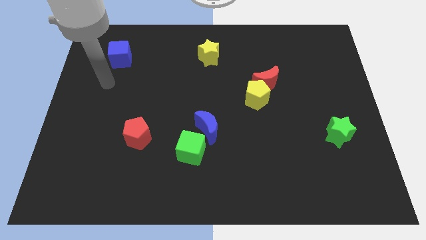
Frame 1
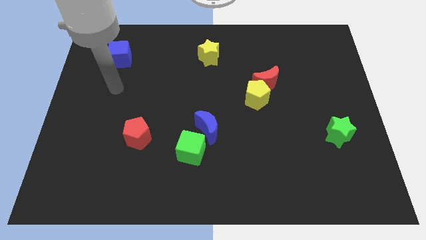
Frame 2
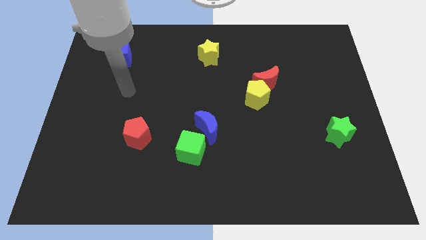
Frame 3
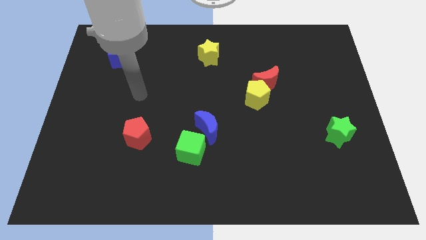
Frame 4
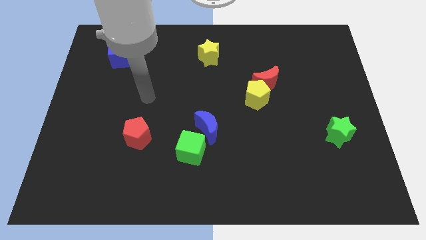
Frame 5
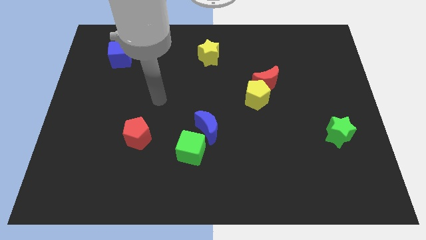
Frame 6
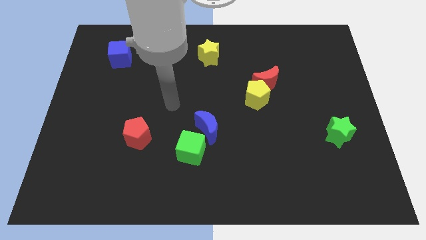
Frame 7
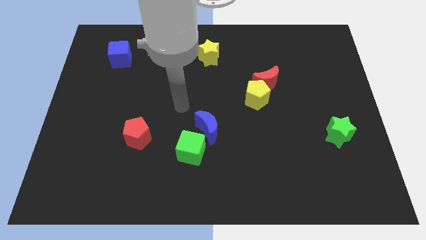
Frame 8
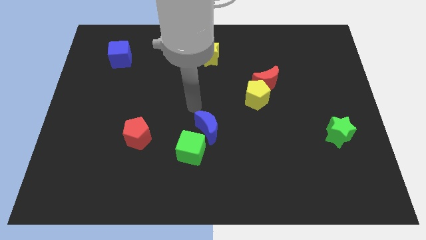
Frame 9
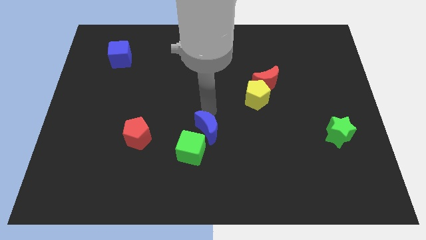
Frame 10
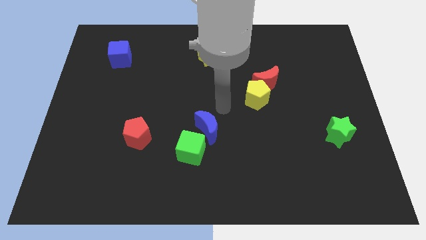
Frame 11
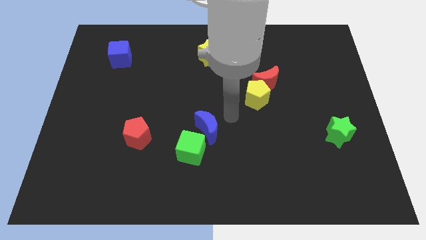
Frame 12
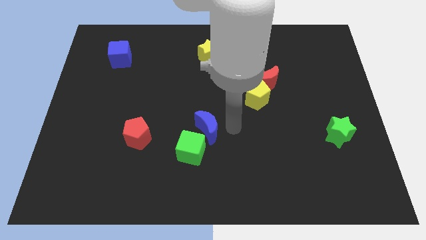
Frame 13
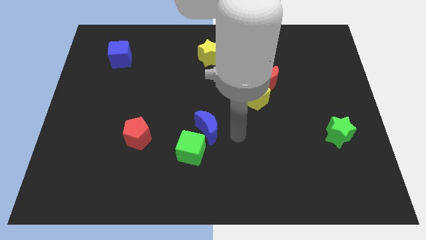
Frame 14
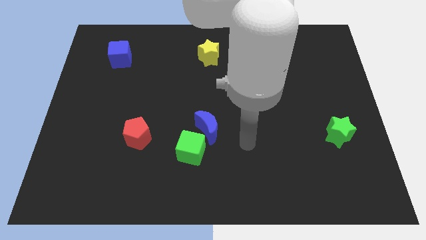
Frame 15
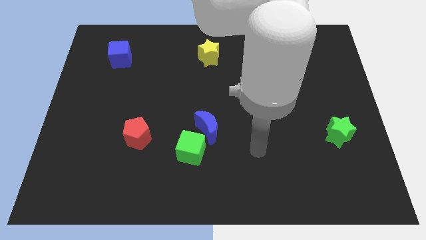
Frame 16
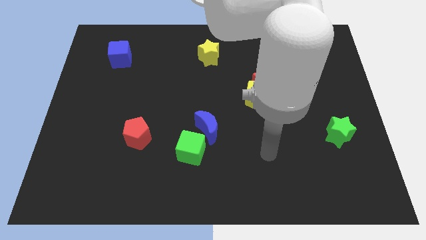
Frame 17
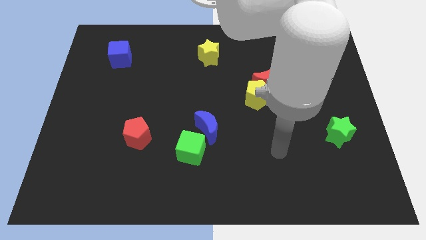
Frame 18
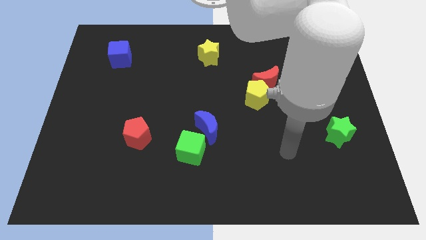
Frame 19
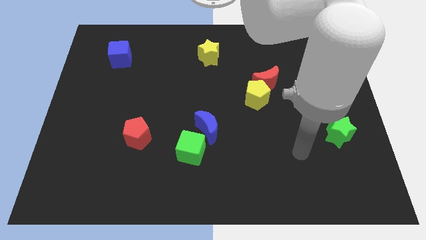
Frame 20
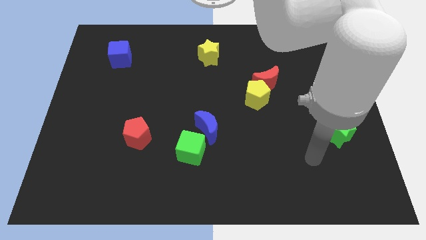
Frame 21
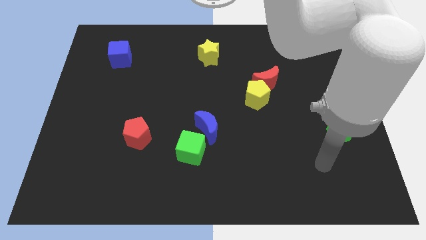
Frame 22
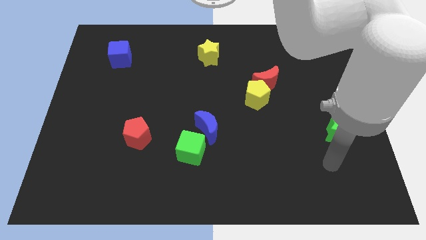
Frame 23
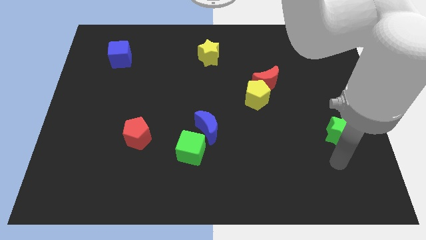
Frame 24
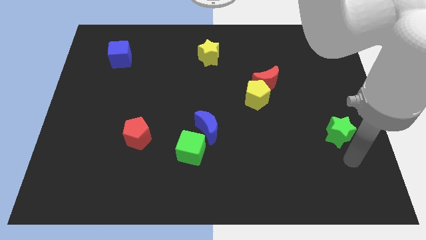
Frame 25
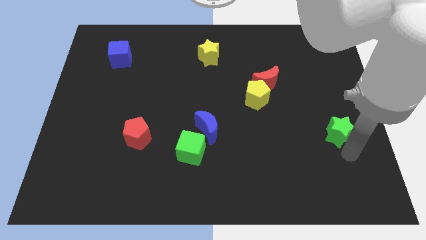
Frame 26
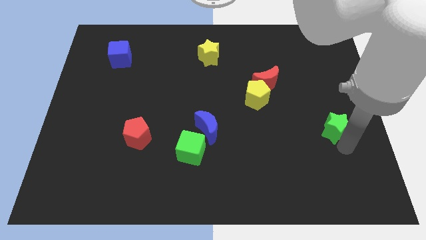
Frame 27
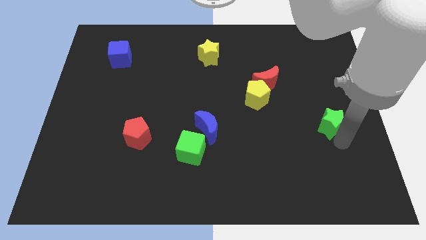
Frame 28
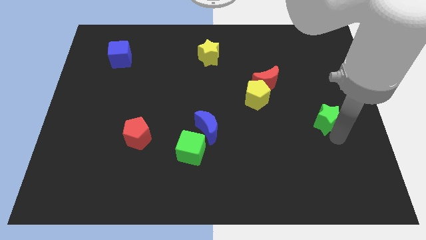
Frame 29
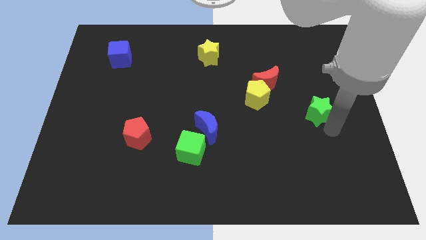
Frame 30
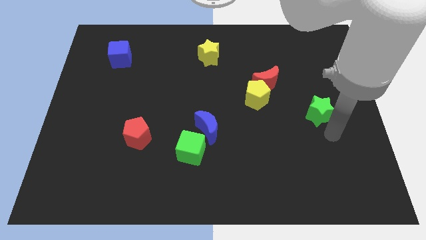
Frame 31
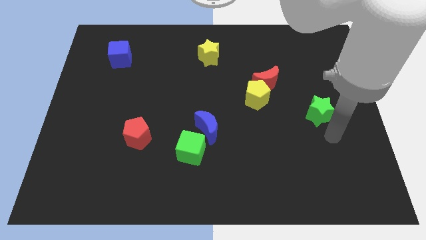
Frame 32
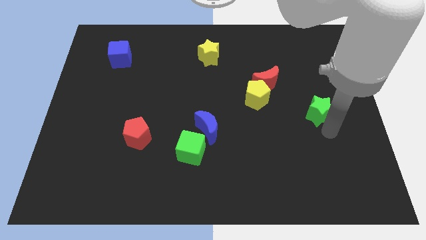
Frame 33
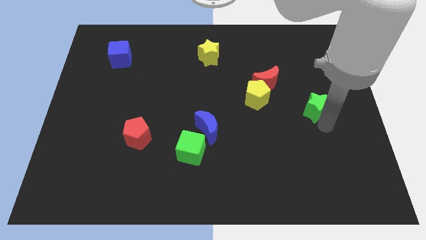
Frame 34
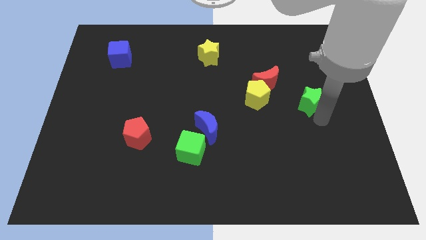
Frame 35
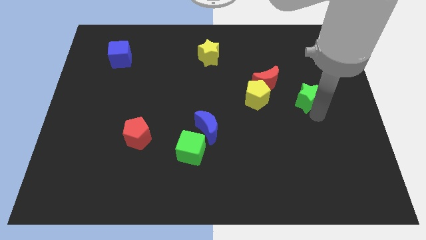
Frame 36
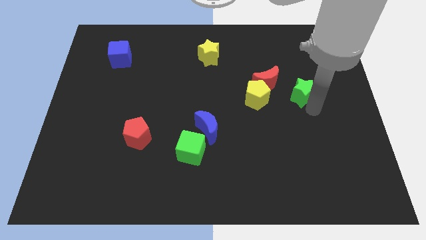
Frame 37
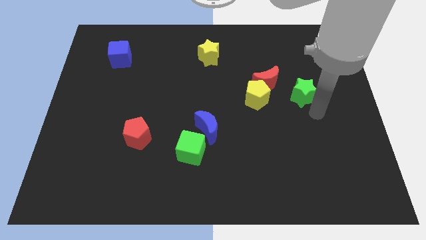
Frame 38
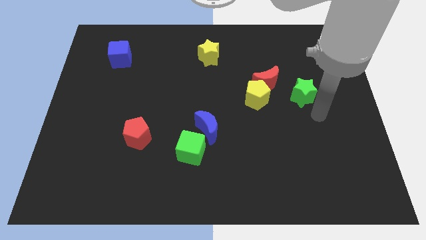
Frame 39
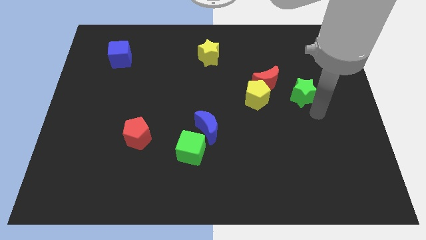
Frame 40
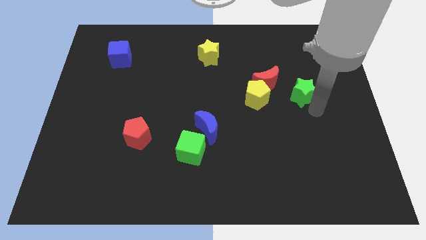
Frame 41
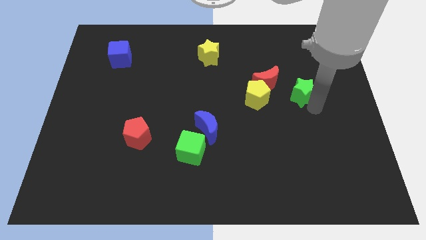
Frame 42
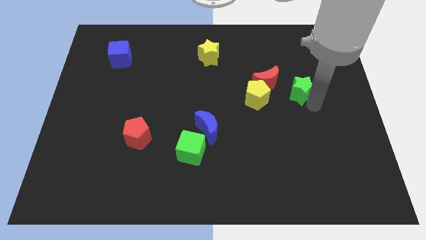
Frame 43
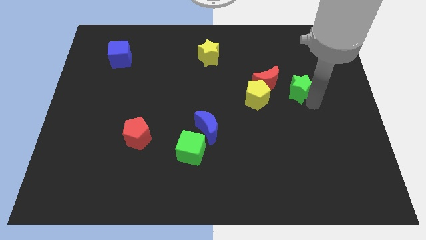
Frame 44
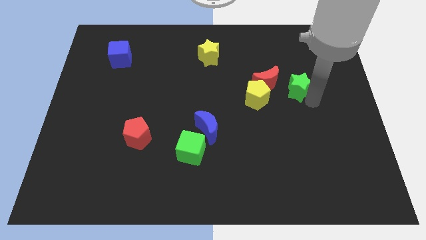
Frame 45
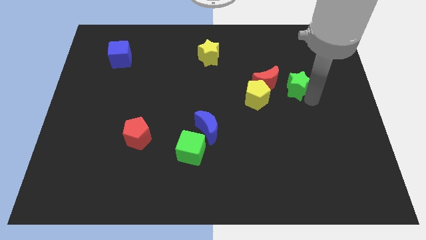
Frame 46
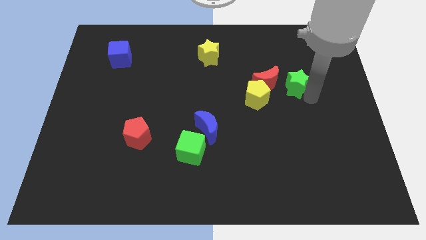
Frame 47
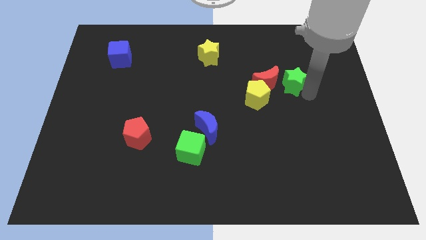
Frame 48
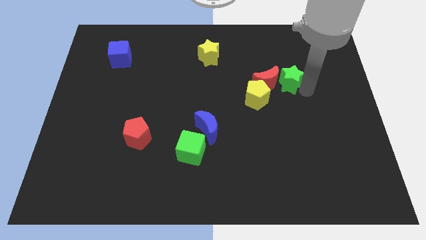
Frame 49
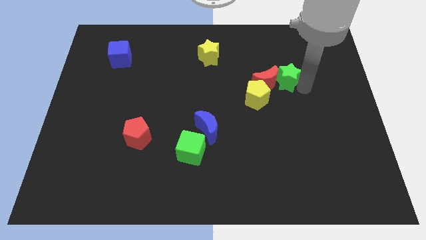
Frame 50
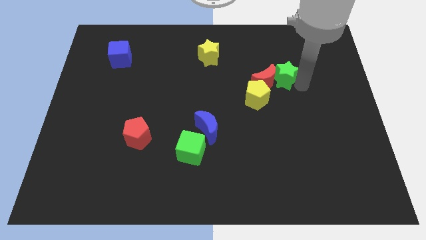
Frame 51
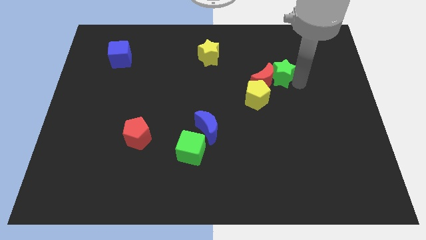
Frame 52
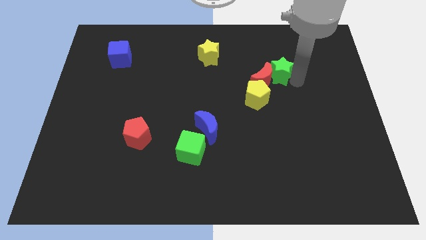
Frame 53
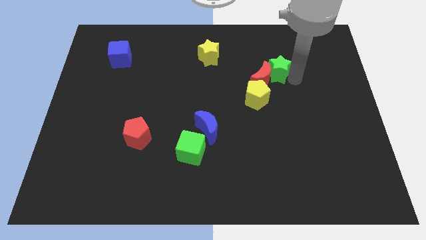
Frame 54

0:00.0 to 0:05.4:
push the green star diagonally up and left

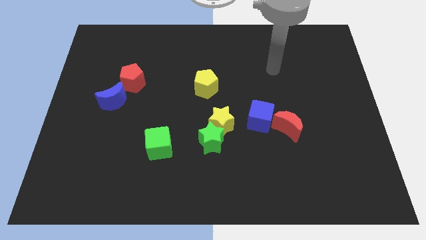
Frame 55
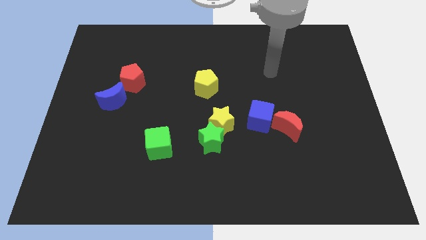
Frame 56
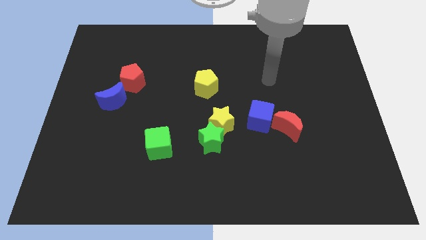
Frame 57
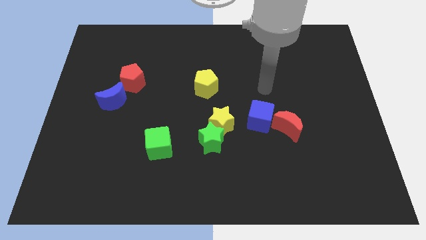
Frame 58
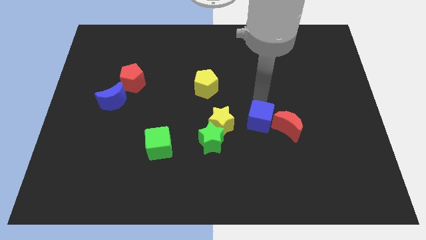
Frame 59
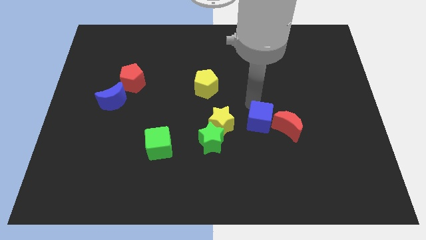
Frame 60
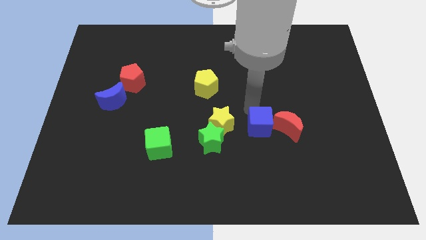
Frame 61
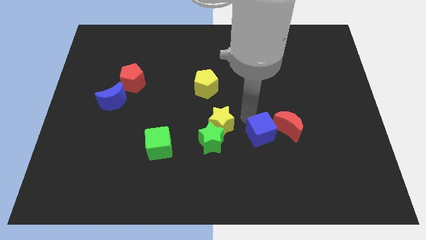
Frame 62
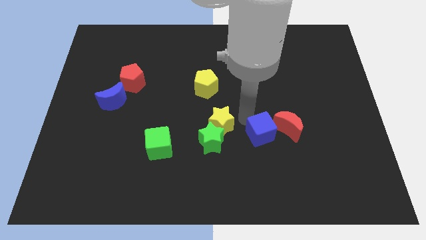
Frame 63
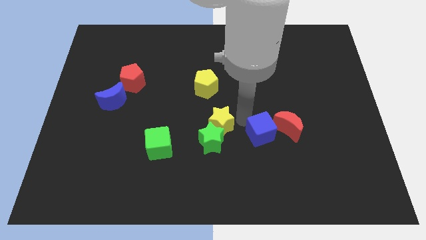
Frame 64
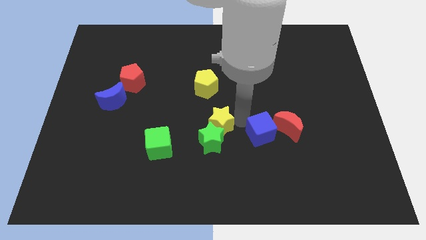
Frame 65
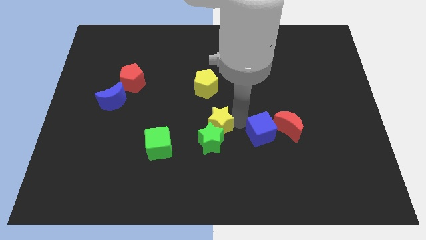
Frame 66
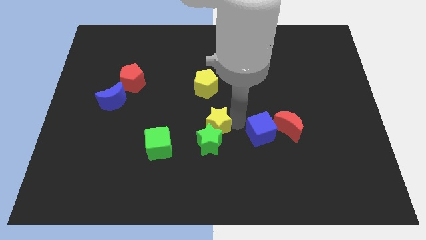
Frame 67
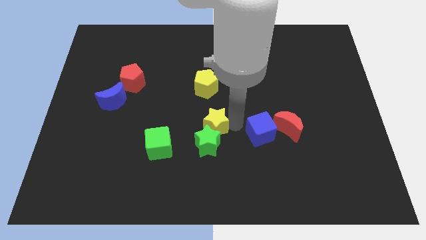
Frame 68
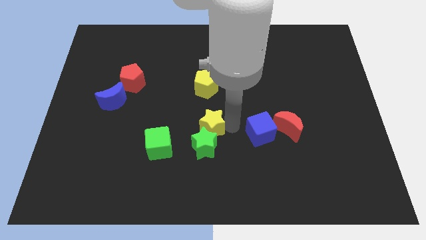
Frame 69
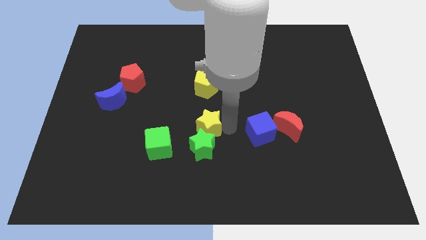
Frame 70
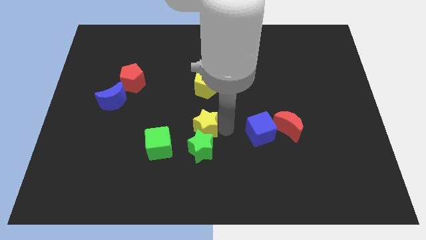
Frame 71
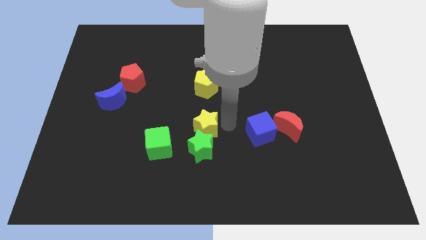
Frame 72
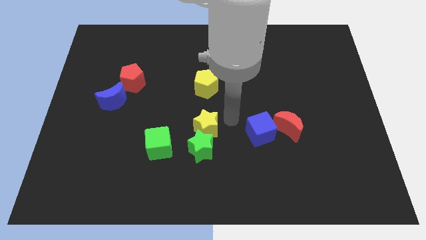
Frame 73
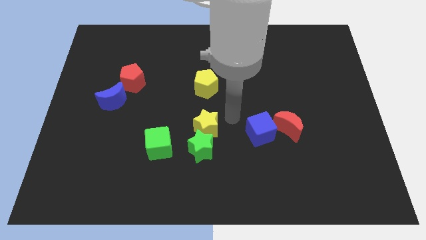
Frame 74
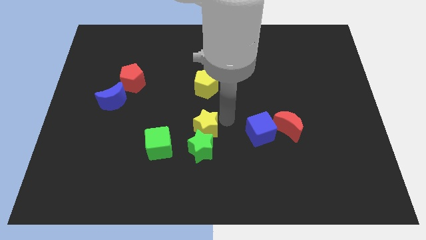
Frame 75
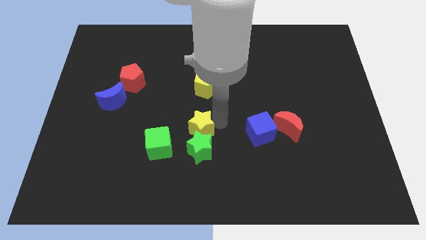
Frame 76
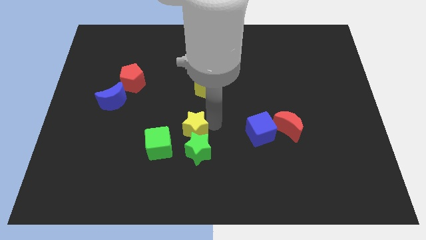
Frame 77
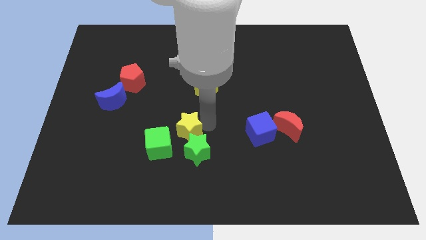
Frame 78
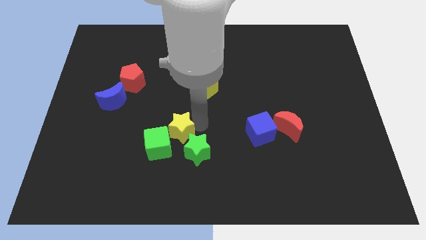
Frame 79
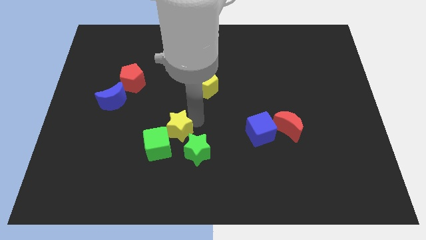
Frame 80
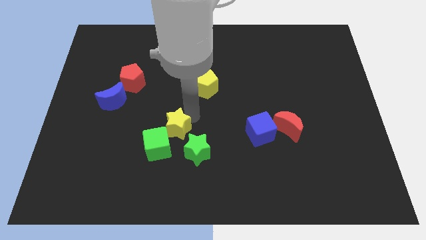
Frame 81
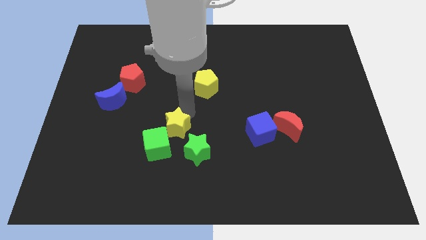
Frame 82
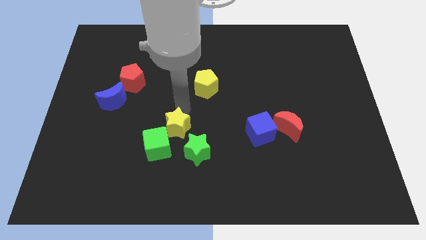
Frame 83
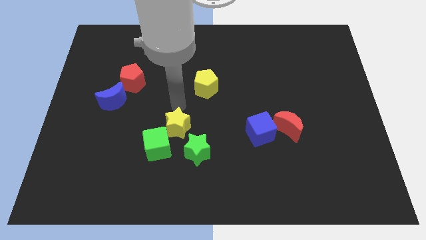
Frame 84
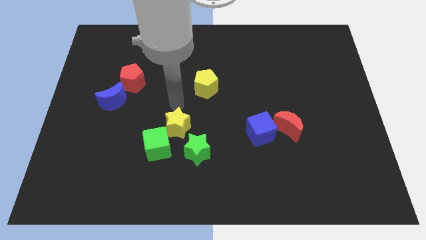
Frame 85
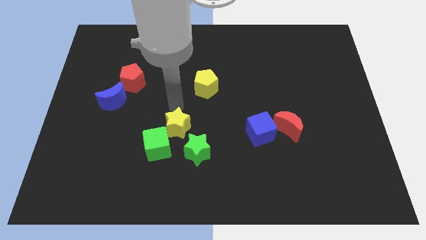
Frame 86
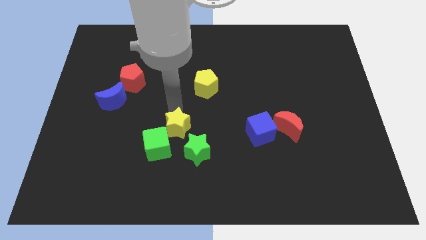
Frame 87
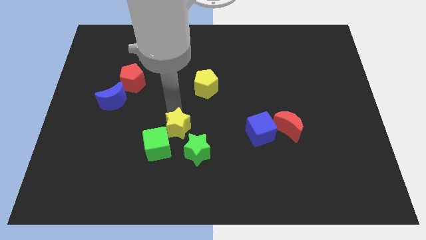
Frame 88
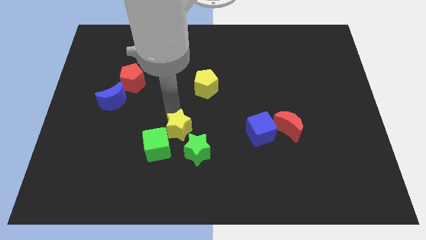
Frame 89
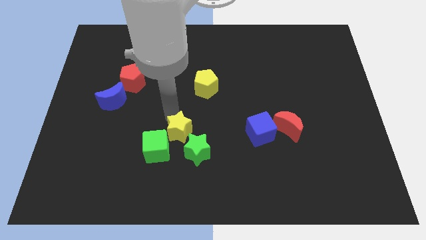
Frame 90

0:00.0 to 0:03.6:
slightly move the yellow star down and left diagonally
